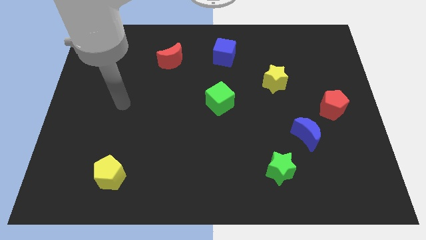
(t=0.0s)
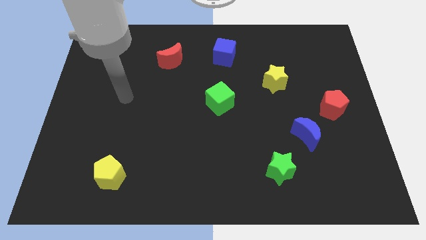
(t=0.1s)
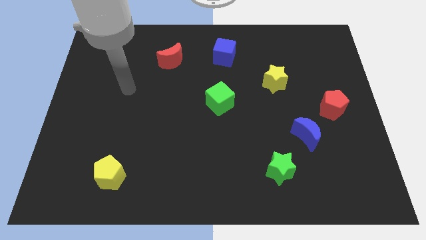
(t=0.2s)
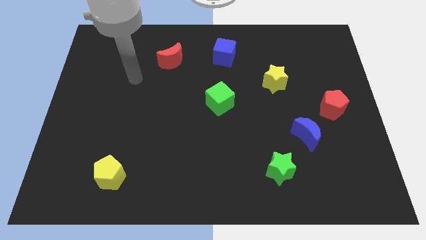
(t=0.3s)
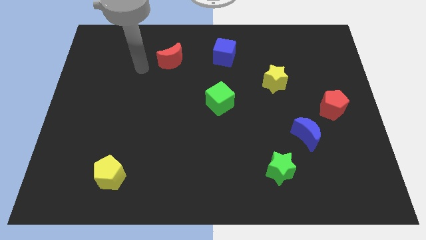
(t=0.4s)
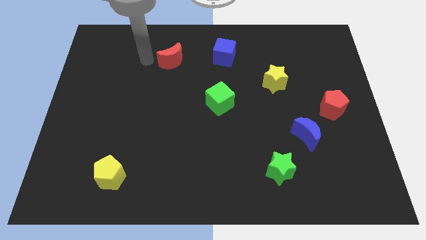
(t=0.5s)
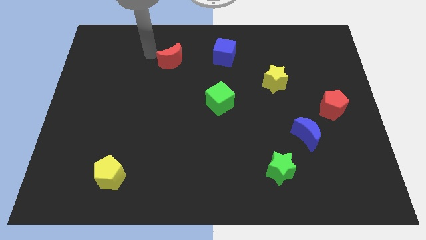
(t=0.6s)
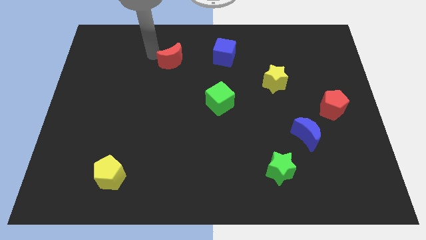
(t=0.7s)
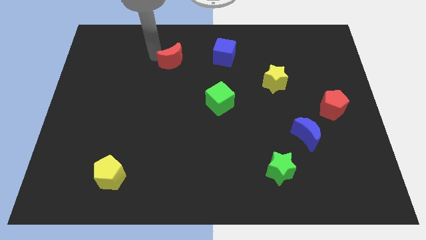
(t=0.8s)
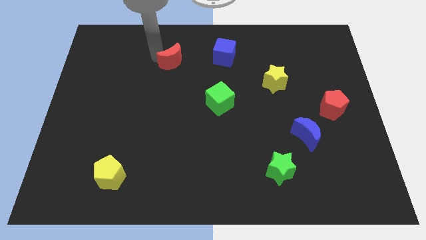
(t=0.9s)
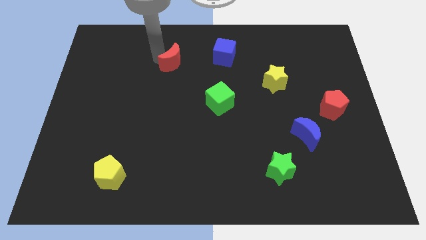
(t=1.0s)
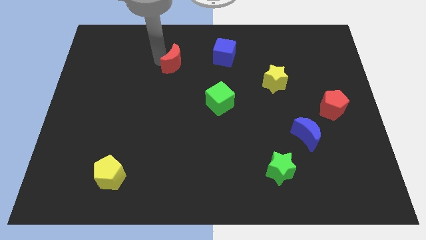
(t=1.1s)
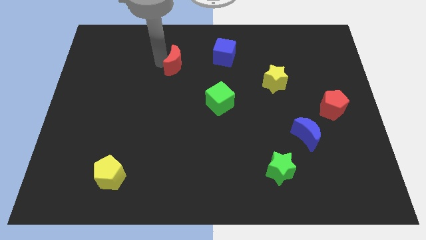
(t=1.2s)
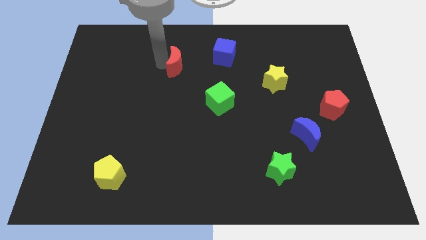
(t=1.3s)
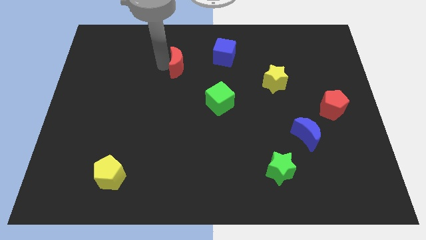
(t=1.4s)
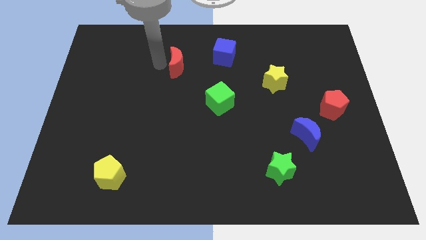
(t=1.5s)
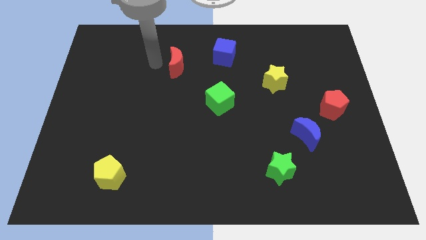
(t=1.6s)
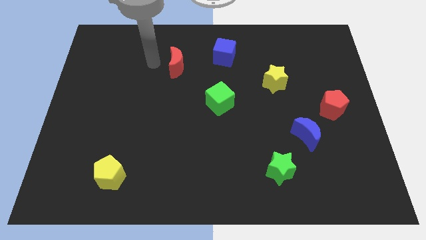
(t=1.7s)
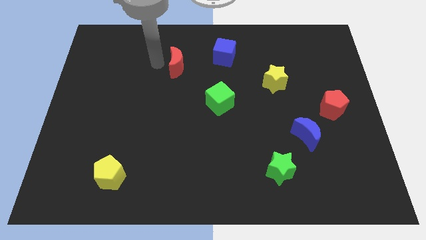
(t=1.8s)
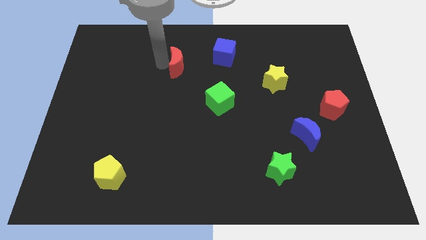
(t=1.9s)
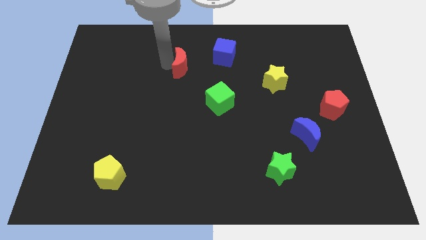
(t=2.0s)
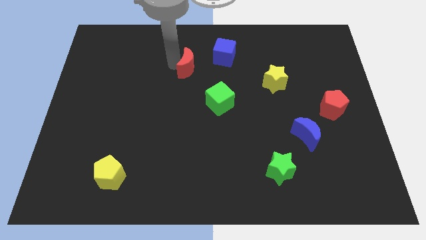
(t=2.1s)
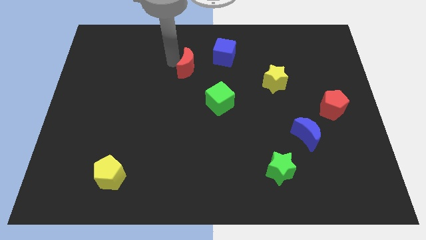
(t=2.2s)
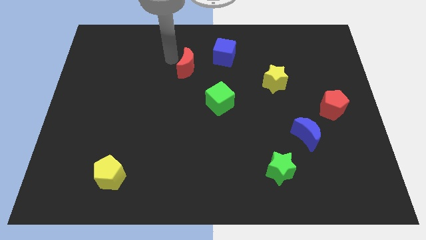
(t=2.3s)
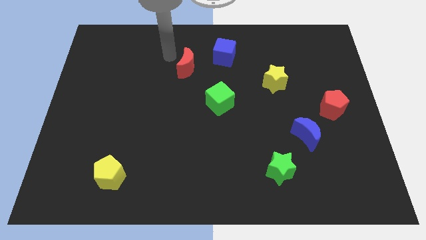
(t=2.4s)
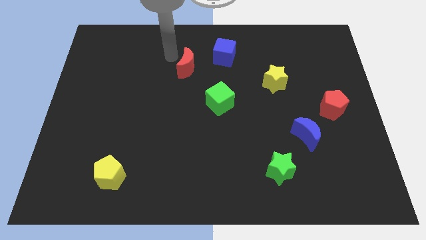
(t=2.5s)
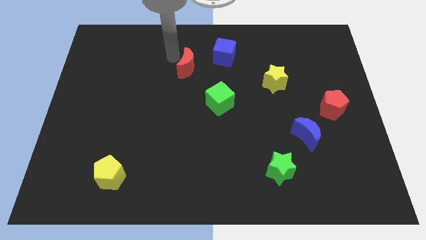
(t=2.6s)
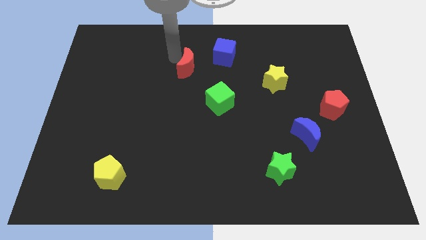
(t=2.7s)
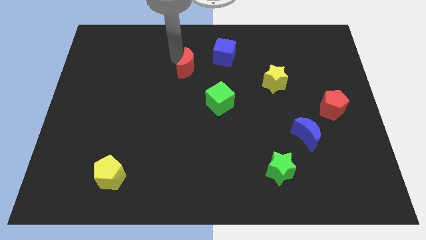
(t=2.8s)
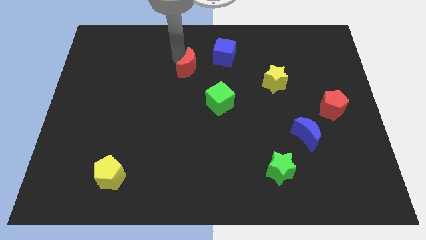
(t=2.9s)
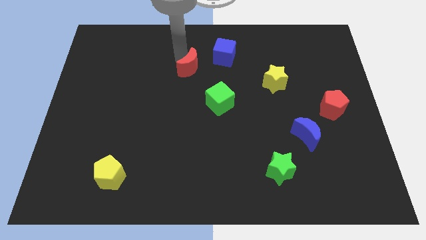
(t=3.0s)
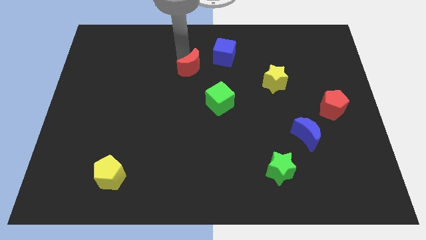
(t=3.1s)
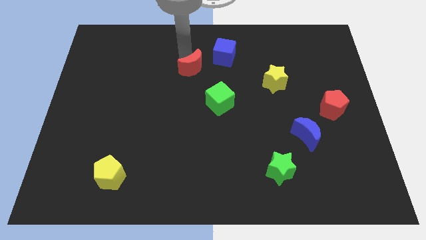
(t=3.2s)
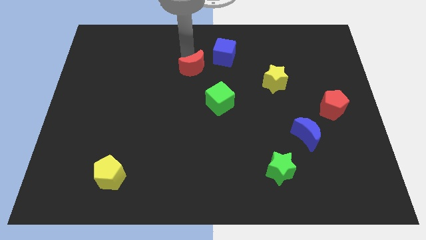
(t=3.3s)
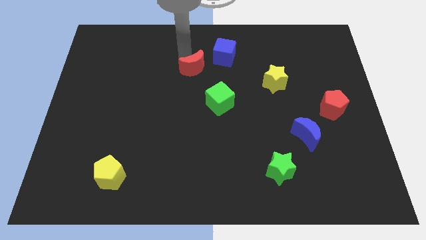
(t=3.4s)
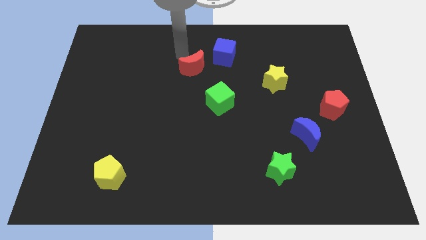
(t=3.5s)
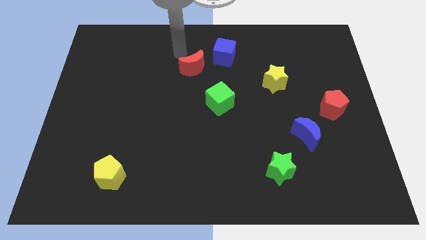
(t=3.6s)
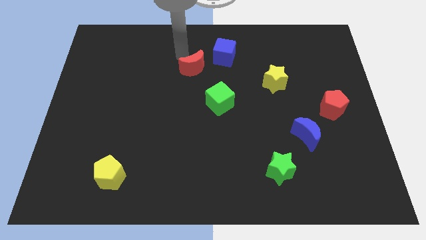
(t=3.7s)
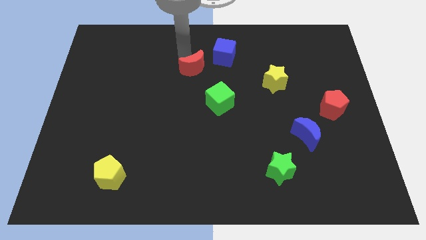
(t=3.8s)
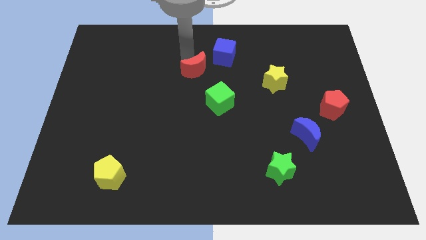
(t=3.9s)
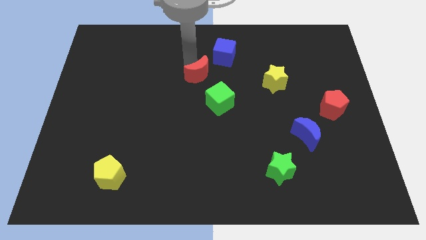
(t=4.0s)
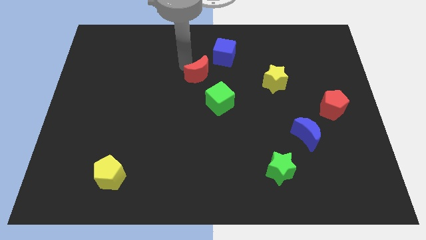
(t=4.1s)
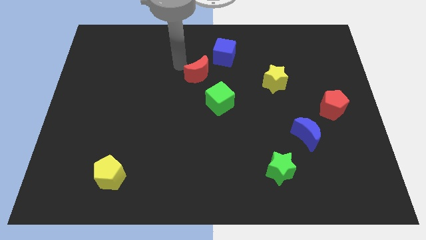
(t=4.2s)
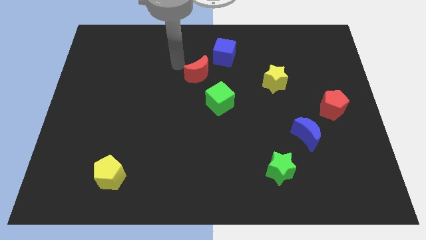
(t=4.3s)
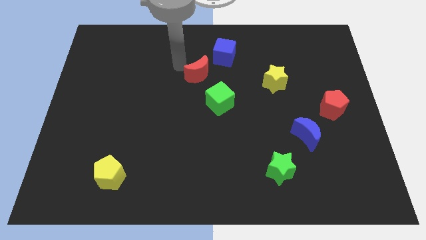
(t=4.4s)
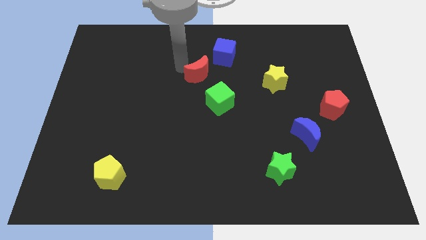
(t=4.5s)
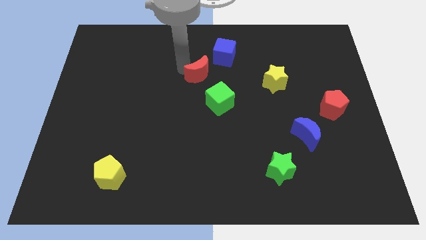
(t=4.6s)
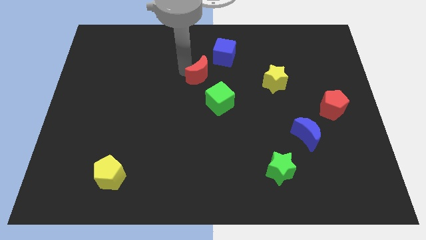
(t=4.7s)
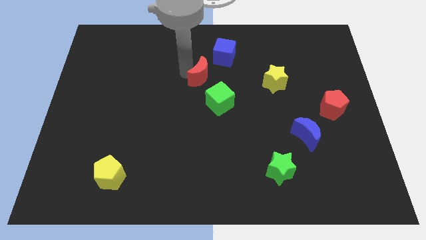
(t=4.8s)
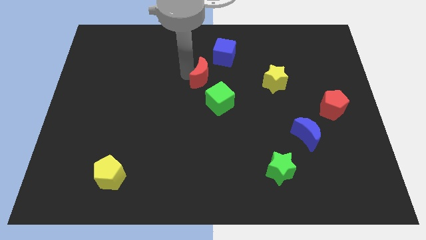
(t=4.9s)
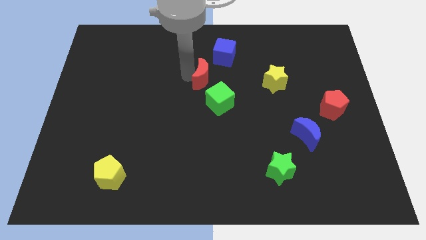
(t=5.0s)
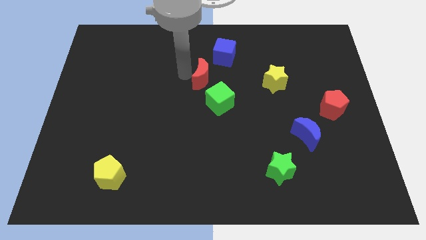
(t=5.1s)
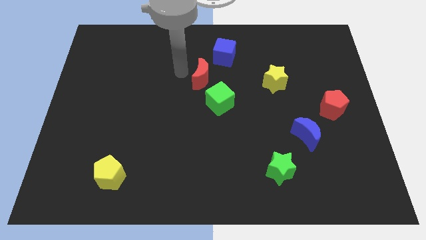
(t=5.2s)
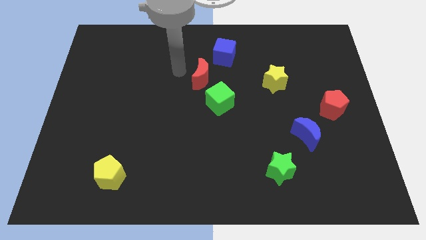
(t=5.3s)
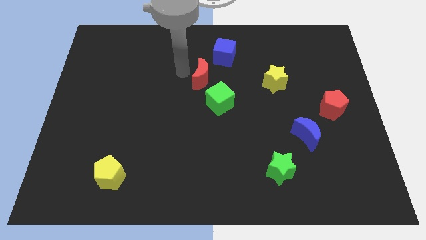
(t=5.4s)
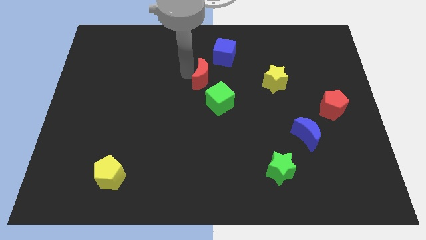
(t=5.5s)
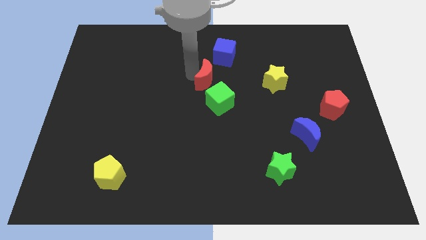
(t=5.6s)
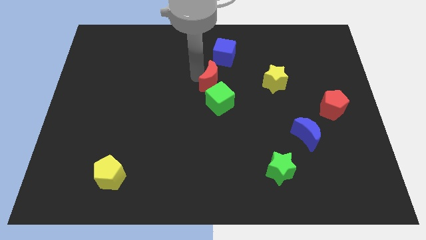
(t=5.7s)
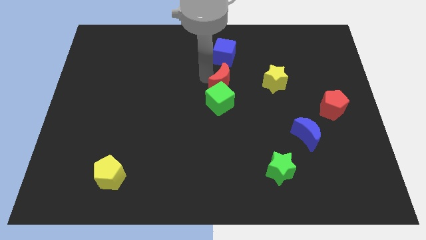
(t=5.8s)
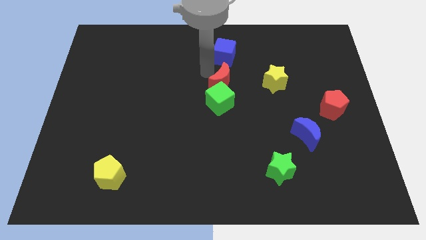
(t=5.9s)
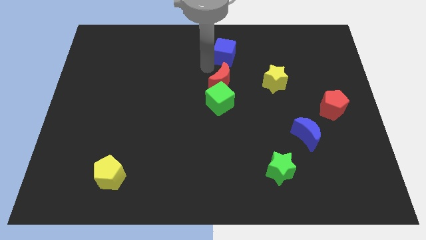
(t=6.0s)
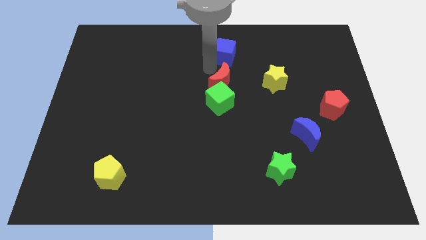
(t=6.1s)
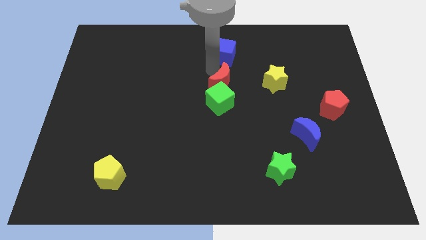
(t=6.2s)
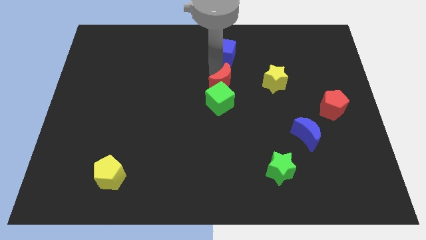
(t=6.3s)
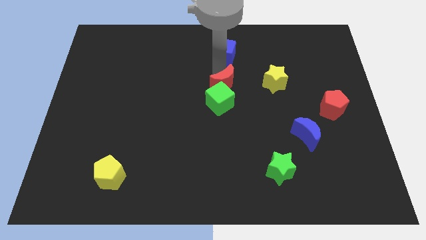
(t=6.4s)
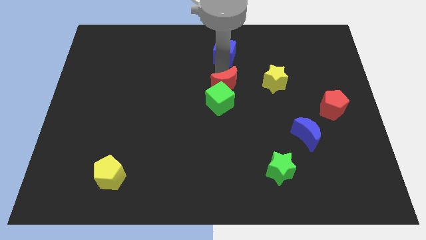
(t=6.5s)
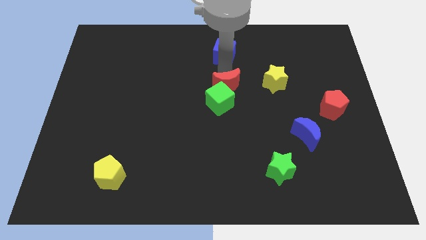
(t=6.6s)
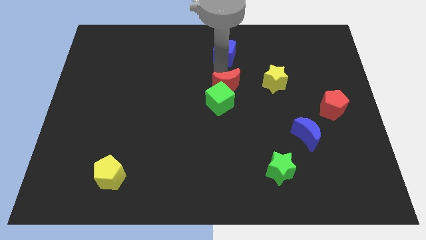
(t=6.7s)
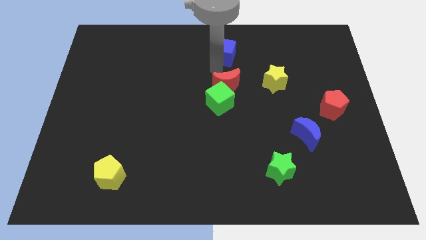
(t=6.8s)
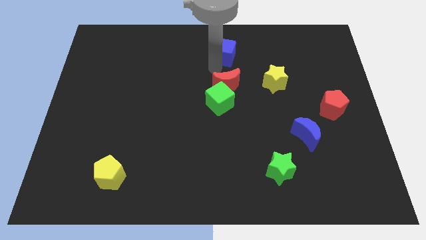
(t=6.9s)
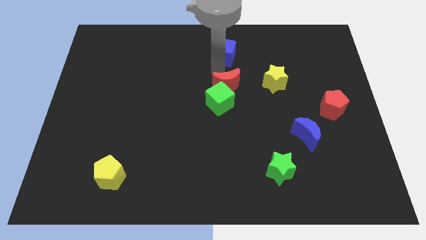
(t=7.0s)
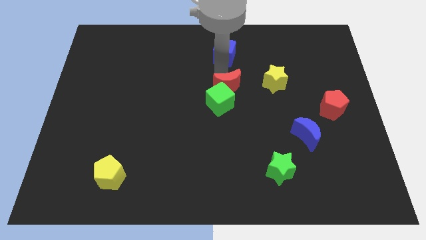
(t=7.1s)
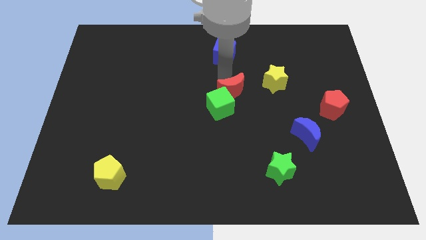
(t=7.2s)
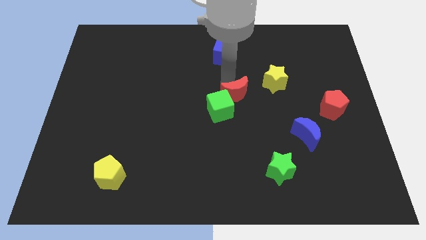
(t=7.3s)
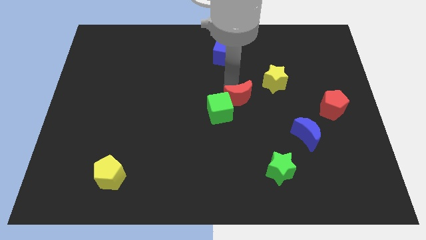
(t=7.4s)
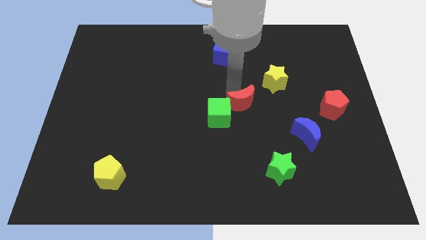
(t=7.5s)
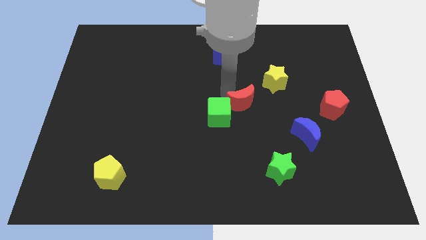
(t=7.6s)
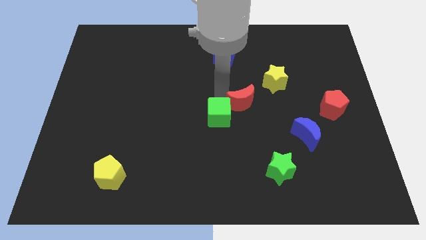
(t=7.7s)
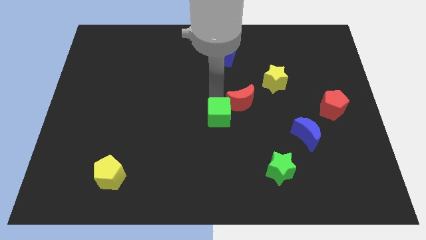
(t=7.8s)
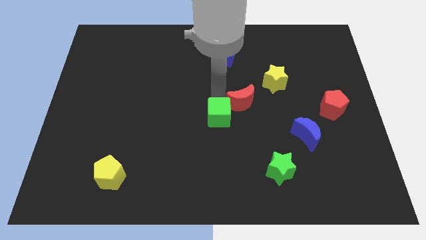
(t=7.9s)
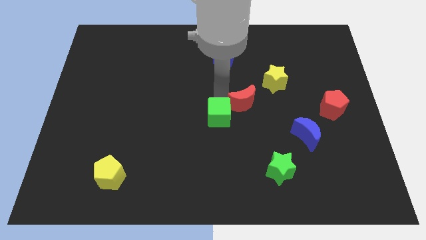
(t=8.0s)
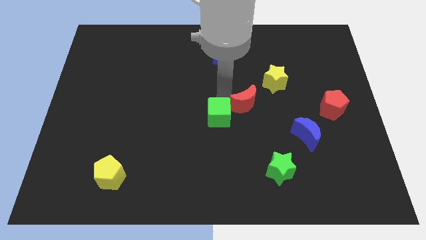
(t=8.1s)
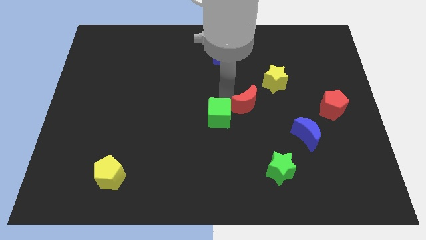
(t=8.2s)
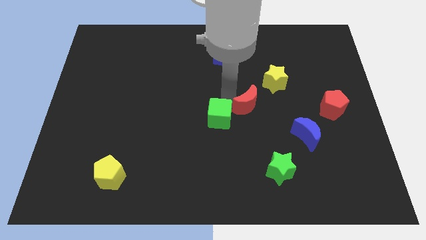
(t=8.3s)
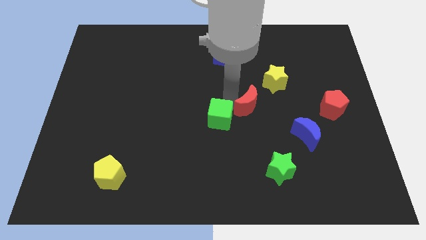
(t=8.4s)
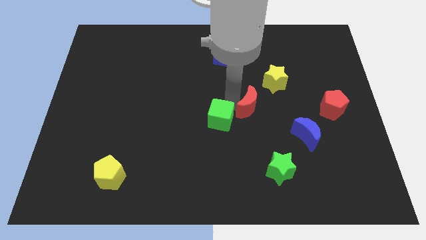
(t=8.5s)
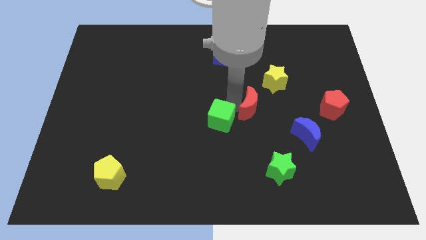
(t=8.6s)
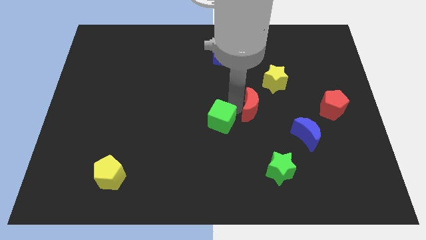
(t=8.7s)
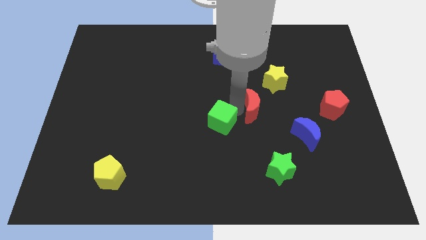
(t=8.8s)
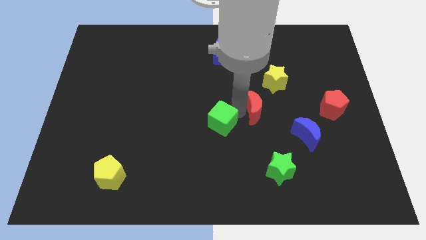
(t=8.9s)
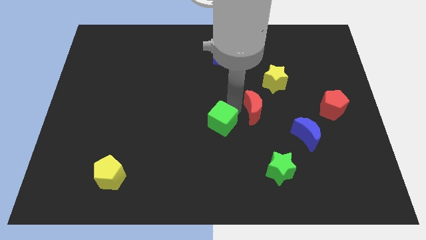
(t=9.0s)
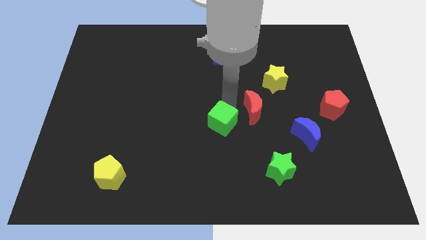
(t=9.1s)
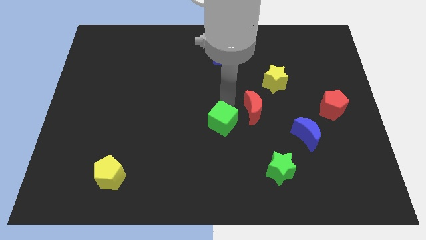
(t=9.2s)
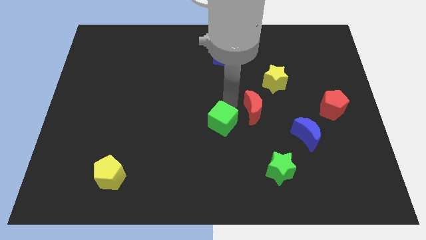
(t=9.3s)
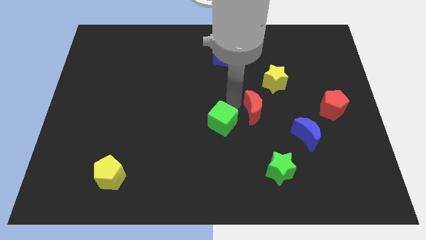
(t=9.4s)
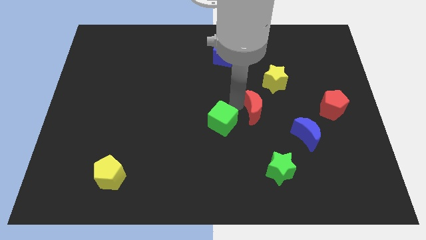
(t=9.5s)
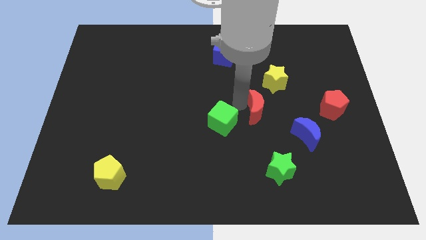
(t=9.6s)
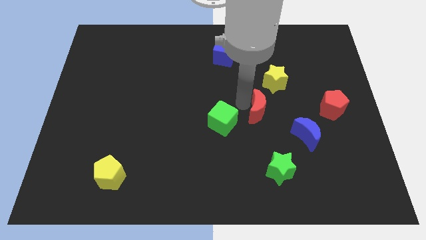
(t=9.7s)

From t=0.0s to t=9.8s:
move the red moon below the yellow star
